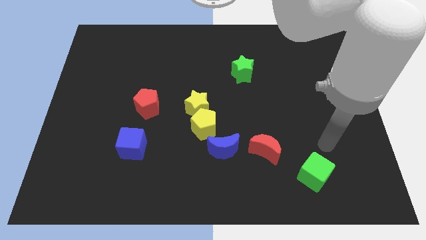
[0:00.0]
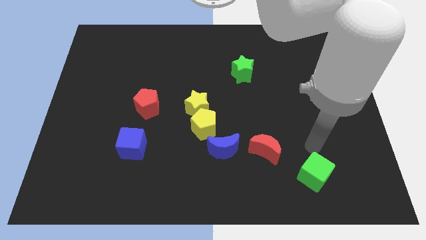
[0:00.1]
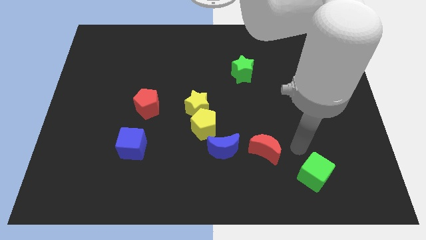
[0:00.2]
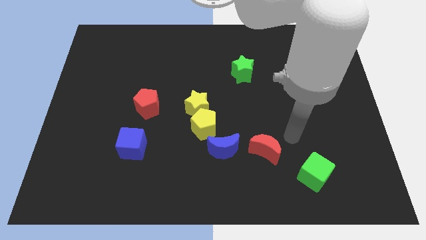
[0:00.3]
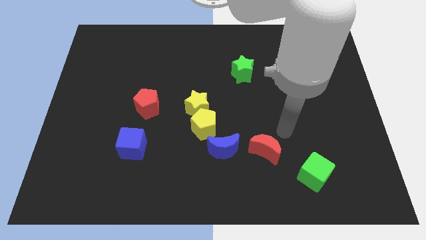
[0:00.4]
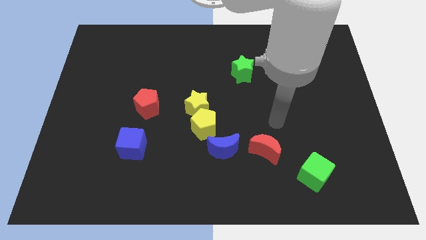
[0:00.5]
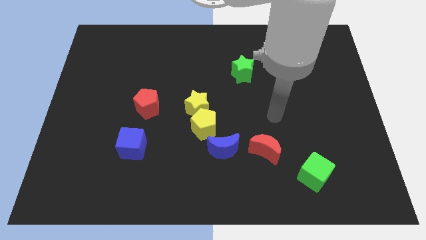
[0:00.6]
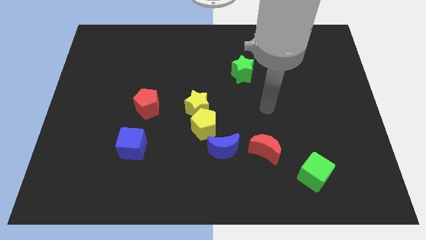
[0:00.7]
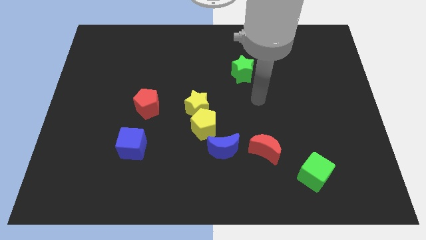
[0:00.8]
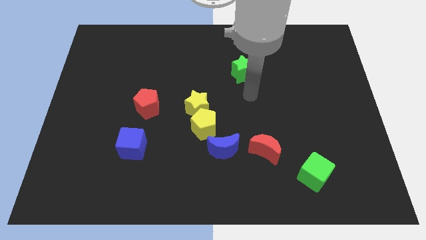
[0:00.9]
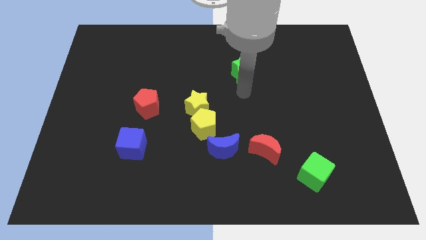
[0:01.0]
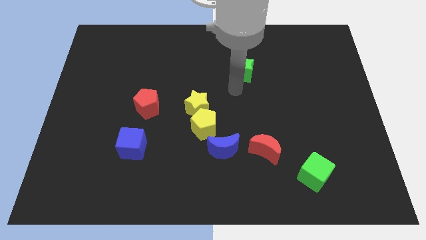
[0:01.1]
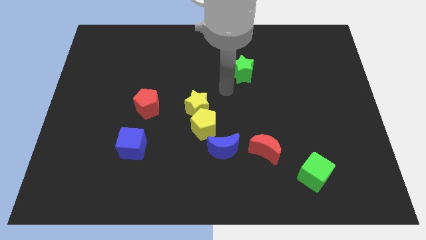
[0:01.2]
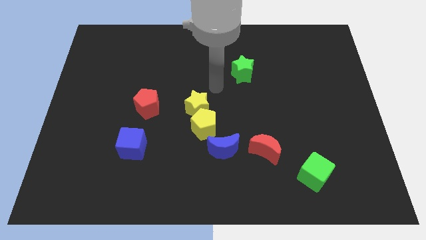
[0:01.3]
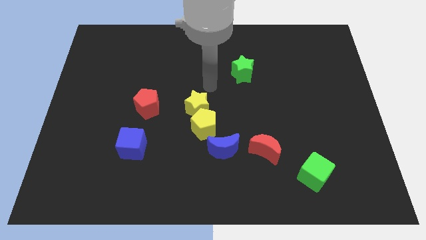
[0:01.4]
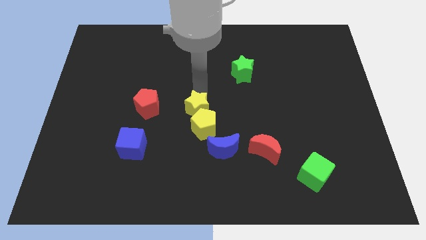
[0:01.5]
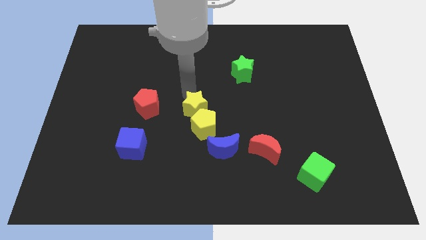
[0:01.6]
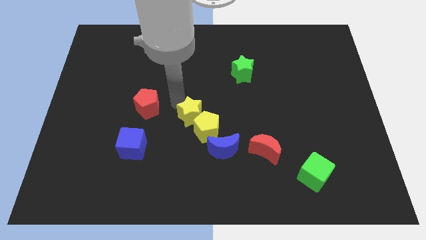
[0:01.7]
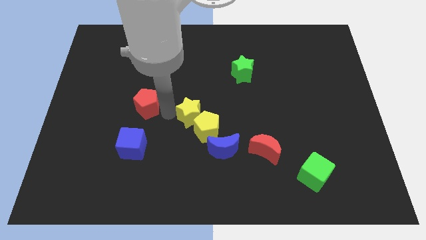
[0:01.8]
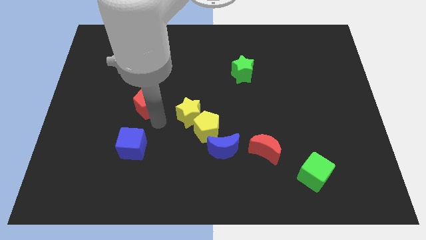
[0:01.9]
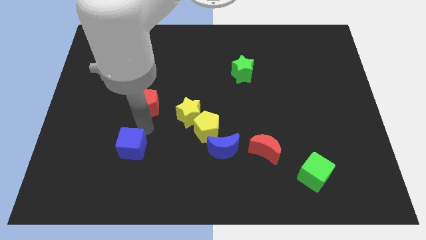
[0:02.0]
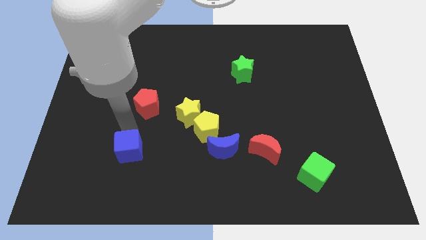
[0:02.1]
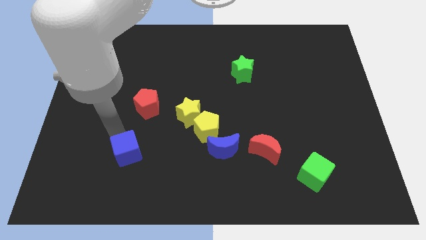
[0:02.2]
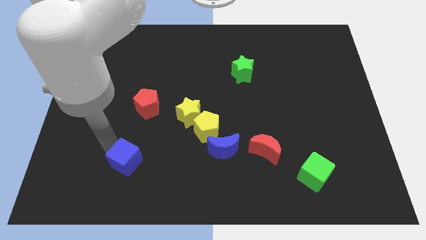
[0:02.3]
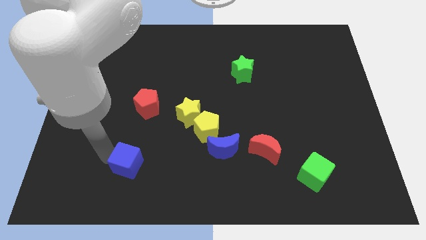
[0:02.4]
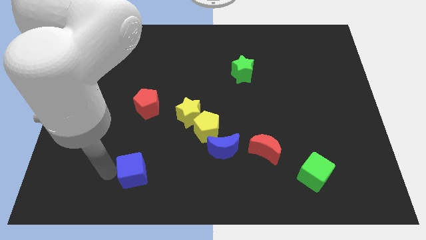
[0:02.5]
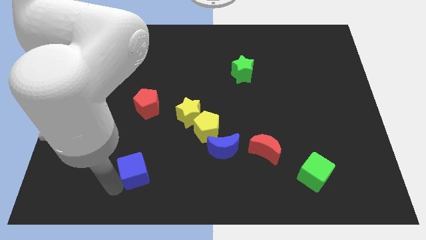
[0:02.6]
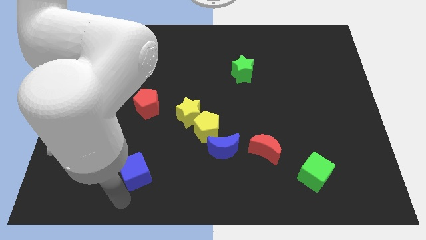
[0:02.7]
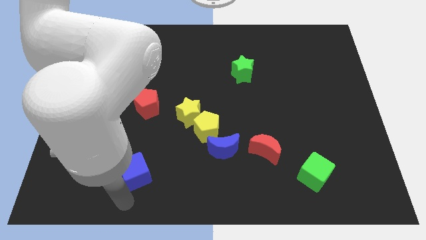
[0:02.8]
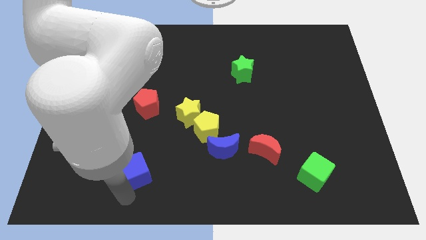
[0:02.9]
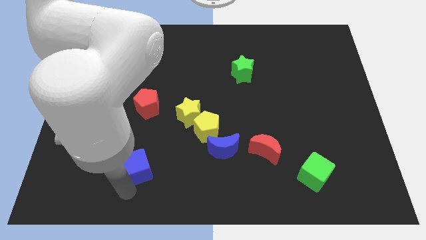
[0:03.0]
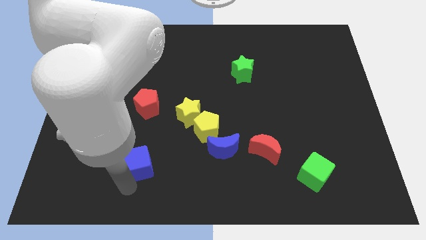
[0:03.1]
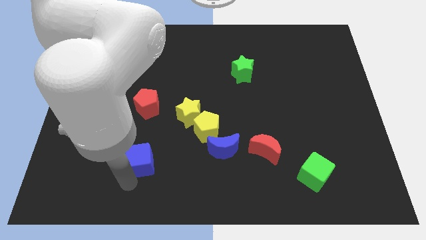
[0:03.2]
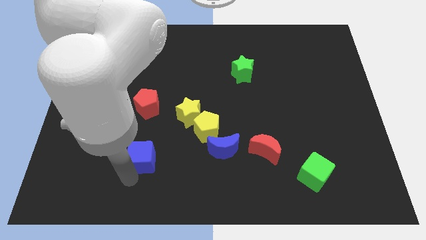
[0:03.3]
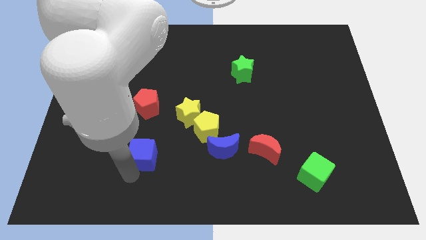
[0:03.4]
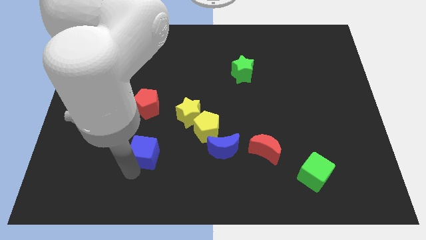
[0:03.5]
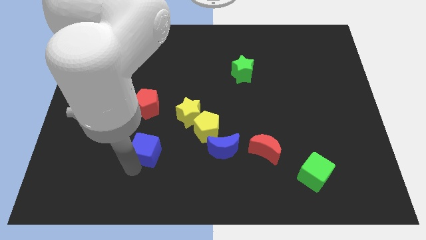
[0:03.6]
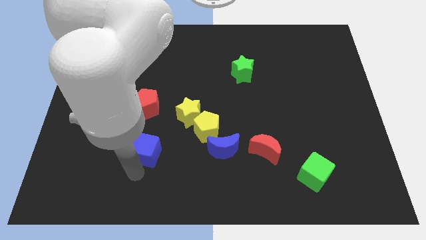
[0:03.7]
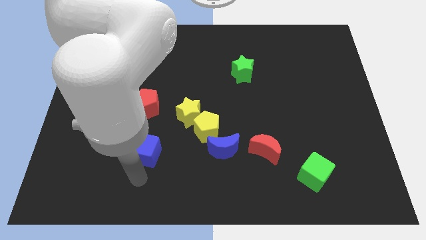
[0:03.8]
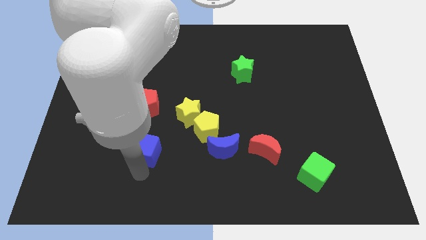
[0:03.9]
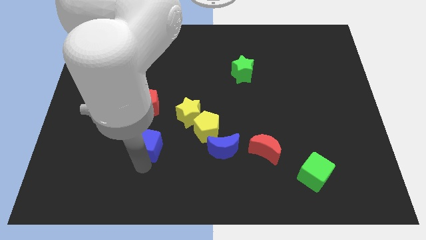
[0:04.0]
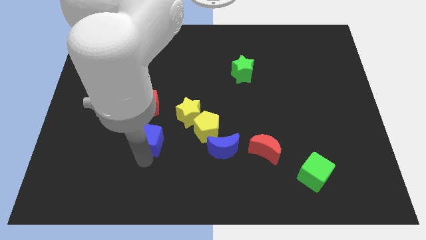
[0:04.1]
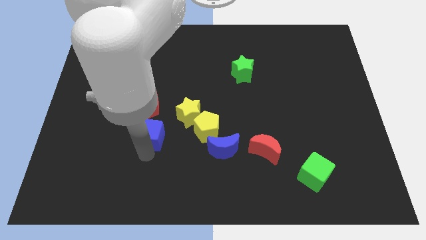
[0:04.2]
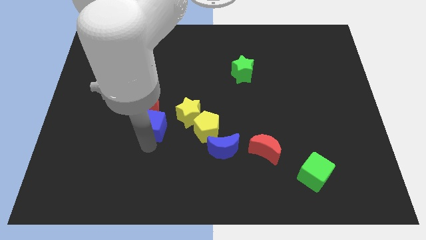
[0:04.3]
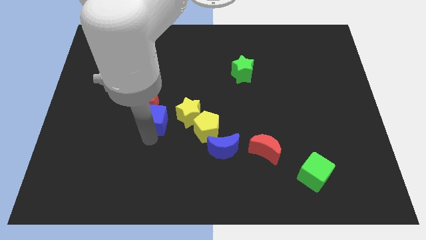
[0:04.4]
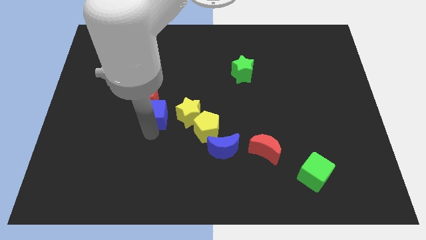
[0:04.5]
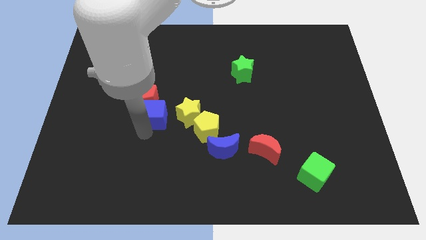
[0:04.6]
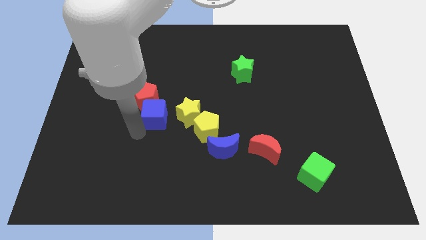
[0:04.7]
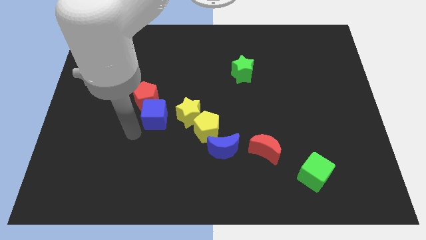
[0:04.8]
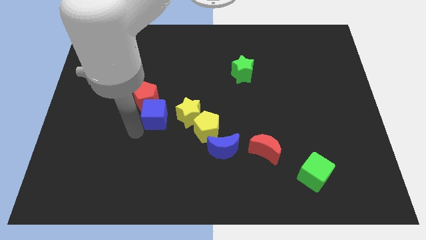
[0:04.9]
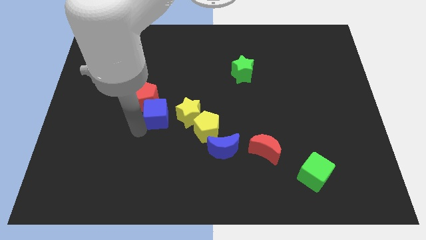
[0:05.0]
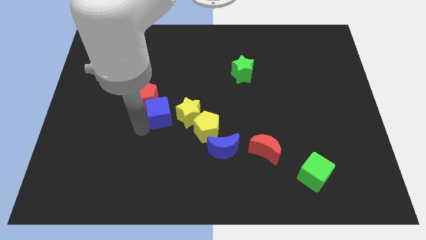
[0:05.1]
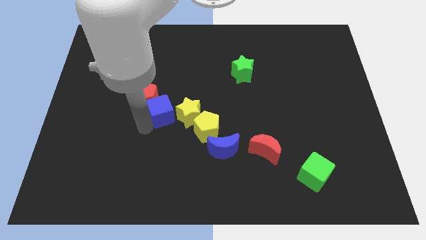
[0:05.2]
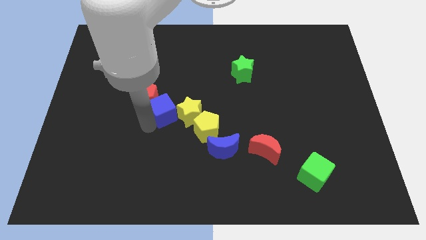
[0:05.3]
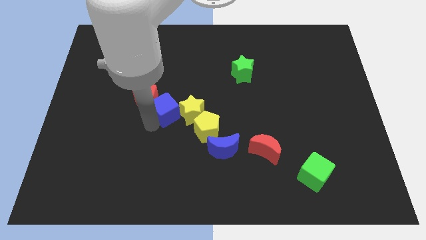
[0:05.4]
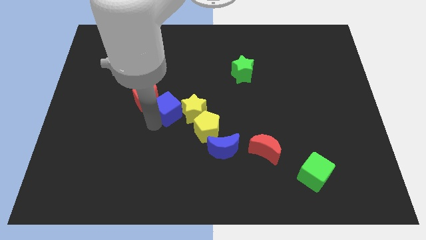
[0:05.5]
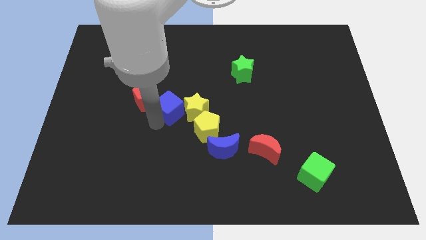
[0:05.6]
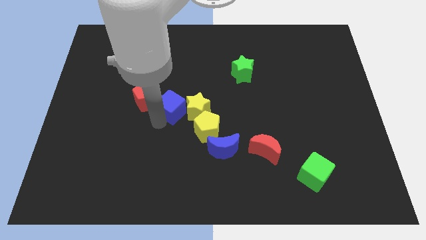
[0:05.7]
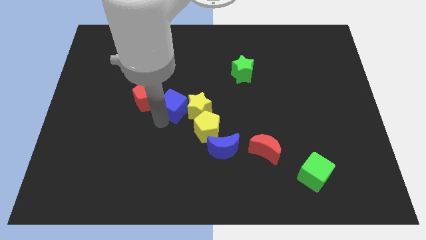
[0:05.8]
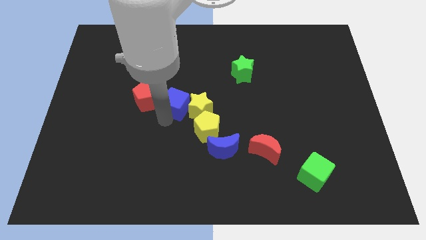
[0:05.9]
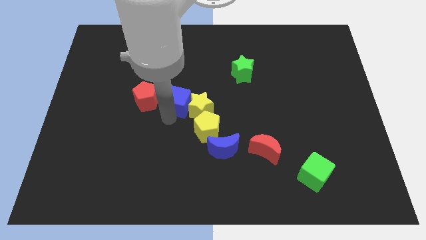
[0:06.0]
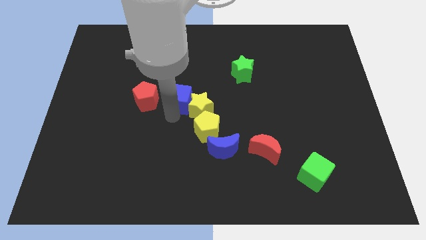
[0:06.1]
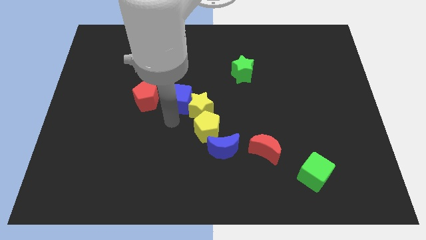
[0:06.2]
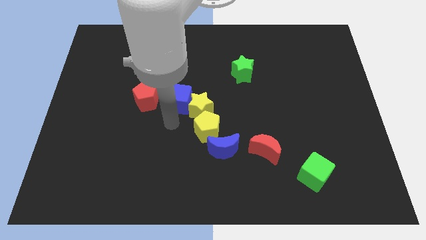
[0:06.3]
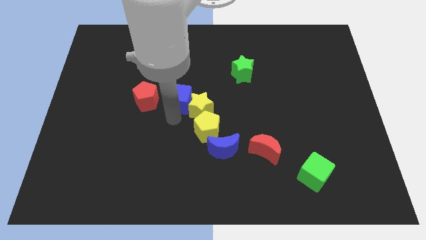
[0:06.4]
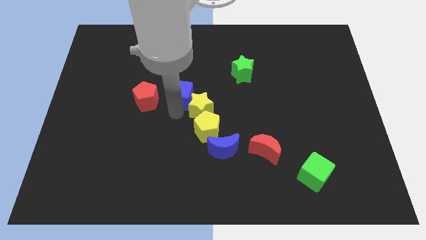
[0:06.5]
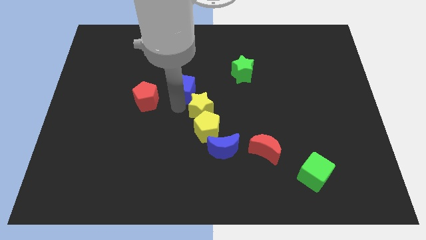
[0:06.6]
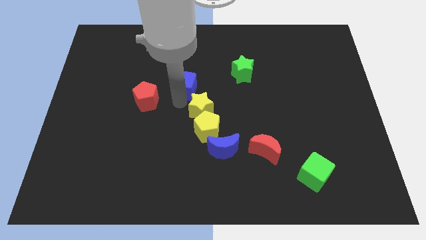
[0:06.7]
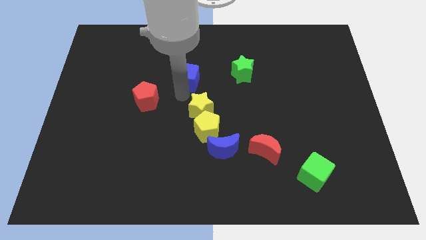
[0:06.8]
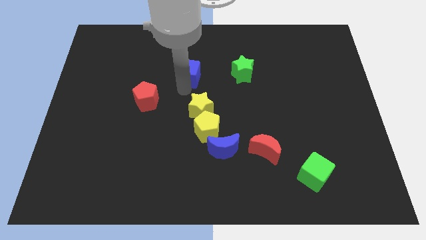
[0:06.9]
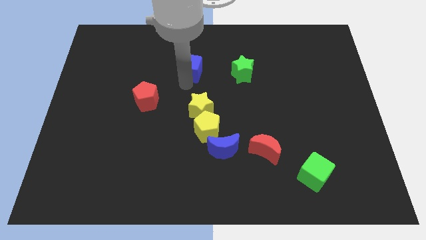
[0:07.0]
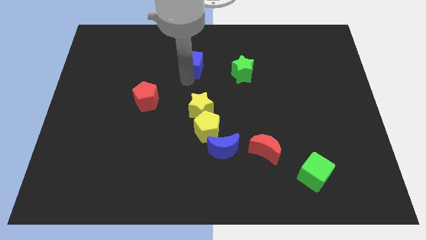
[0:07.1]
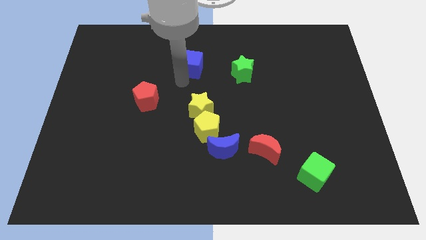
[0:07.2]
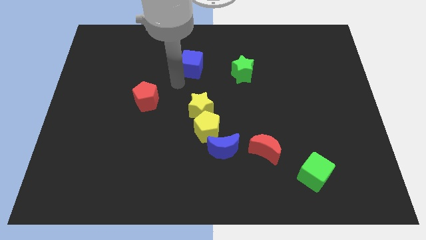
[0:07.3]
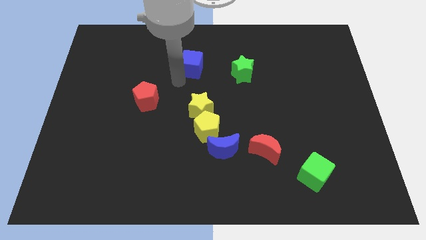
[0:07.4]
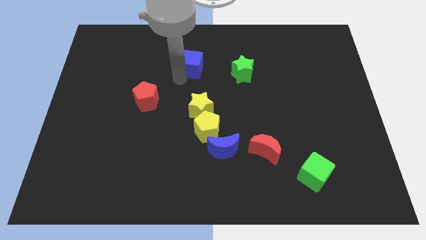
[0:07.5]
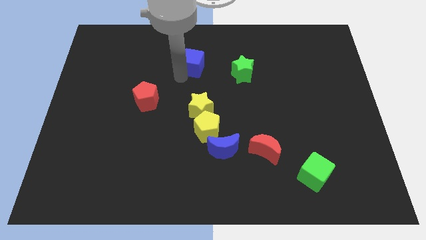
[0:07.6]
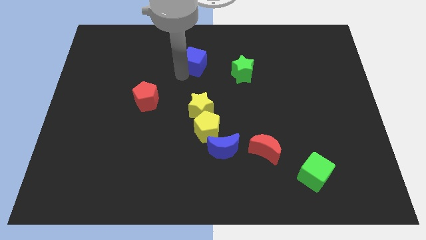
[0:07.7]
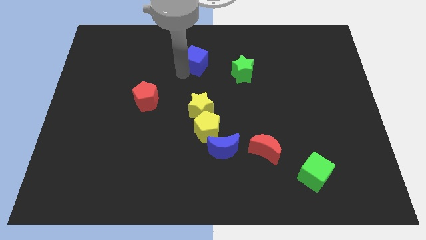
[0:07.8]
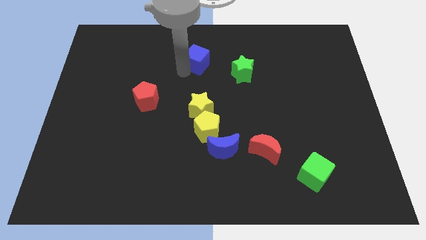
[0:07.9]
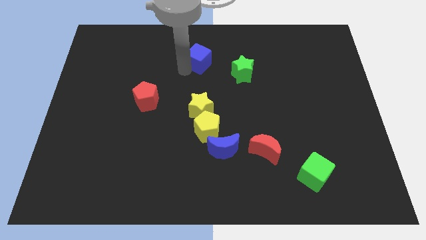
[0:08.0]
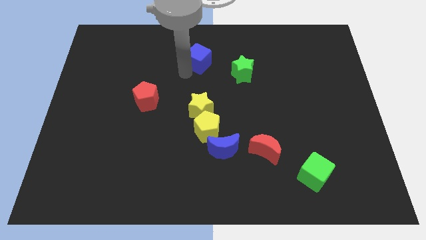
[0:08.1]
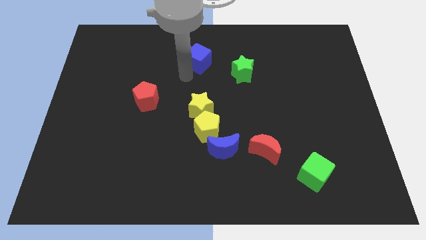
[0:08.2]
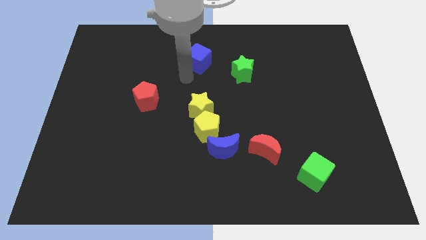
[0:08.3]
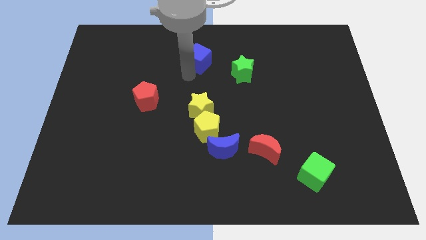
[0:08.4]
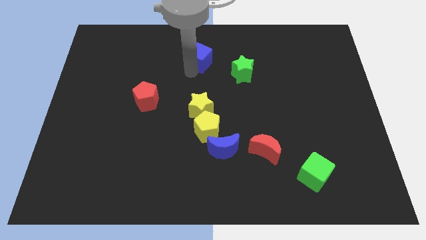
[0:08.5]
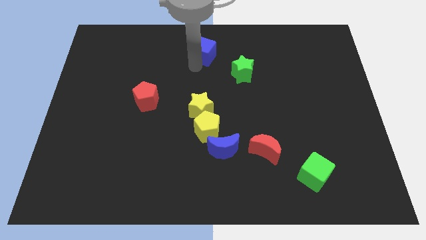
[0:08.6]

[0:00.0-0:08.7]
slide the blue cube to the towards your base
